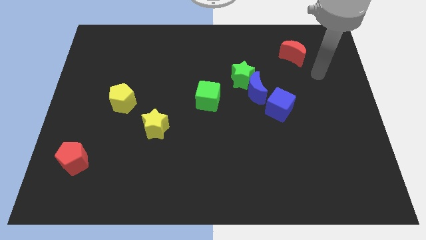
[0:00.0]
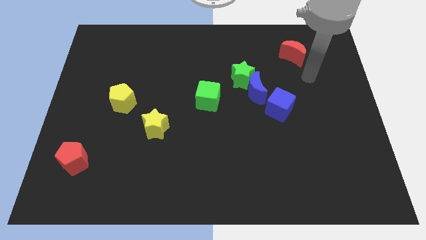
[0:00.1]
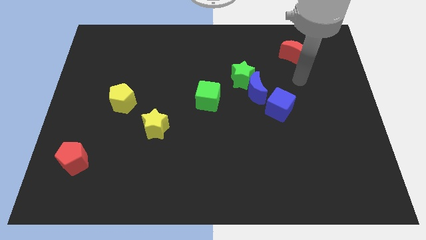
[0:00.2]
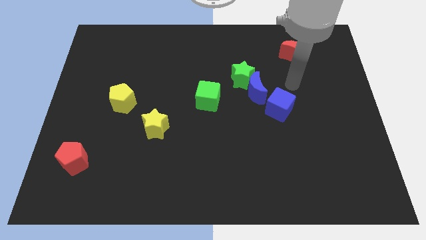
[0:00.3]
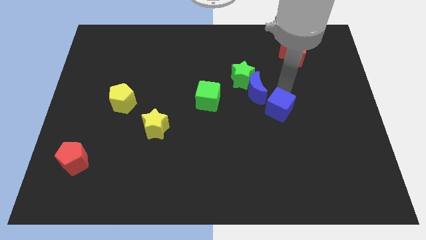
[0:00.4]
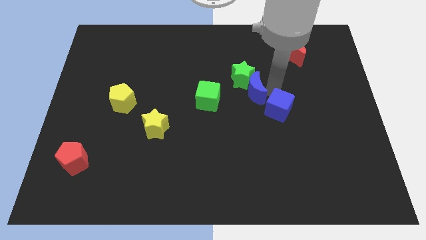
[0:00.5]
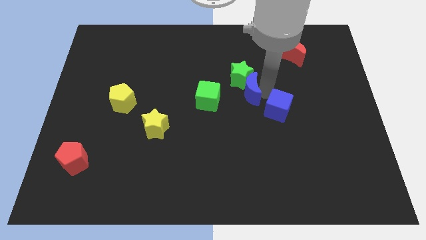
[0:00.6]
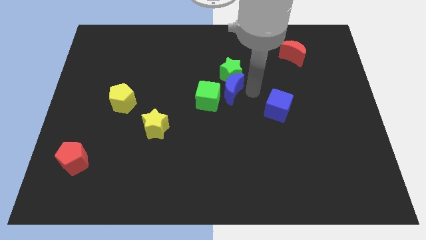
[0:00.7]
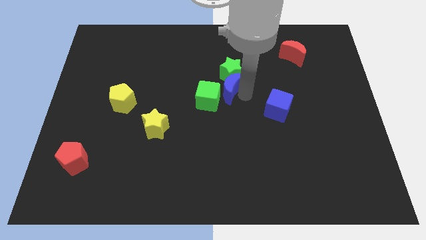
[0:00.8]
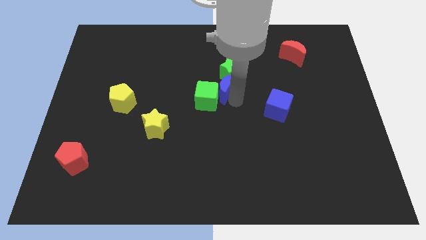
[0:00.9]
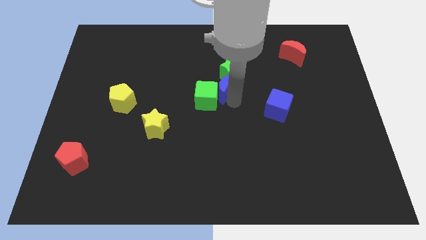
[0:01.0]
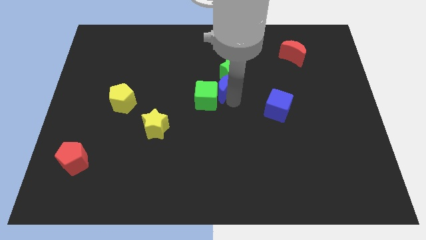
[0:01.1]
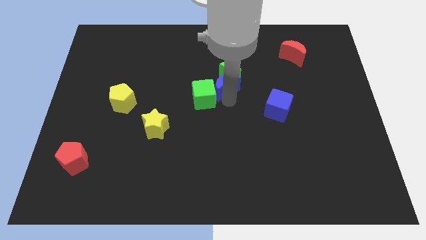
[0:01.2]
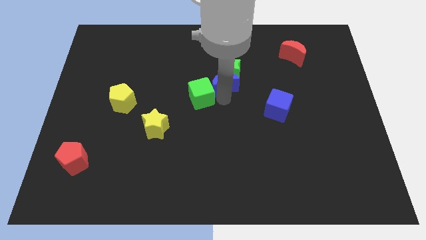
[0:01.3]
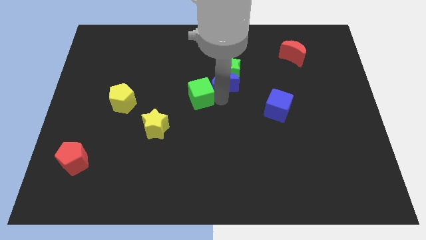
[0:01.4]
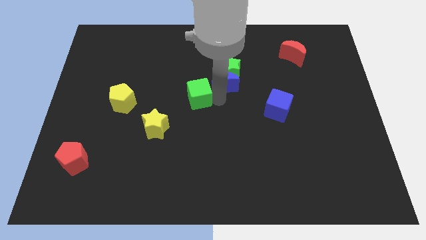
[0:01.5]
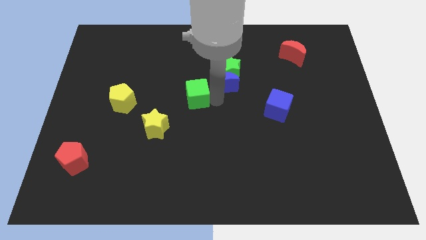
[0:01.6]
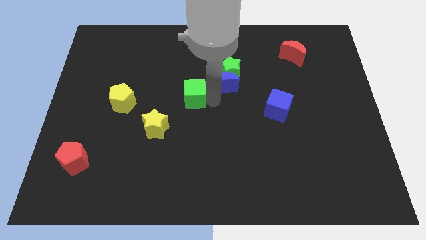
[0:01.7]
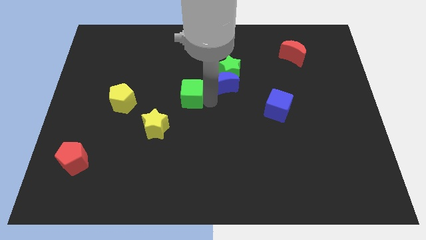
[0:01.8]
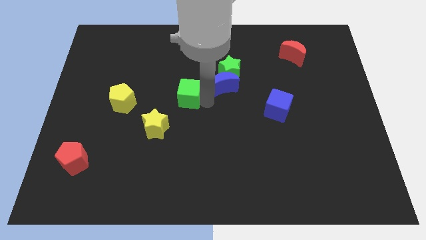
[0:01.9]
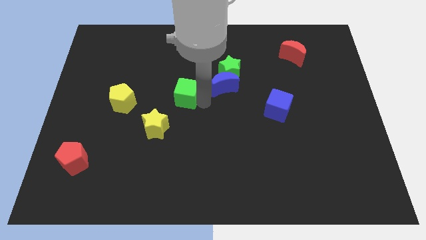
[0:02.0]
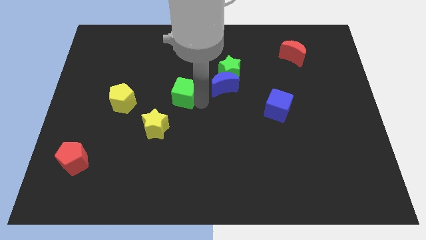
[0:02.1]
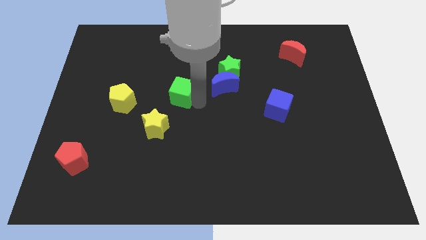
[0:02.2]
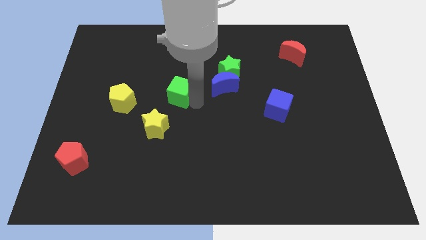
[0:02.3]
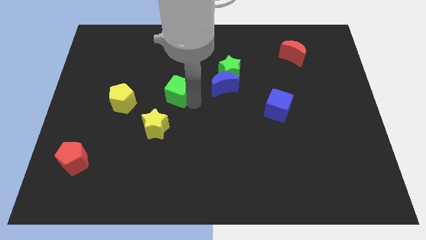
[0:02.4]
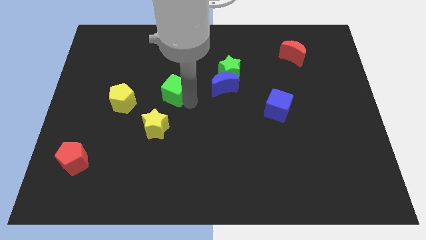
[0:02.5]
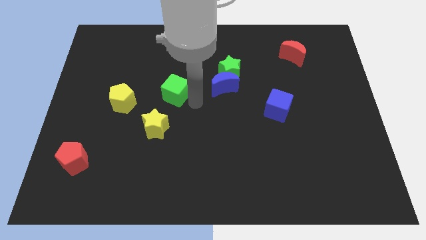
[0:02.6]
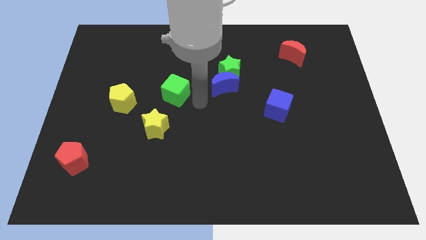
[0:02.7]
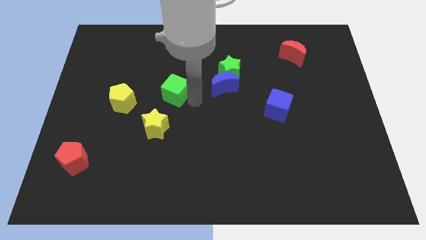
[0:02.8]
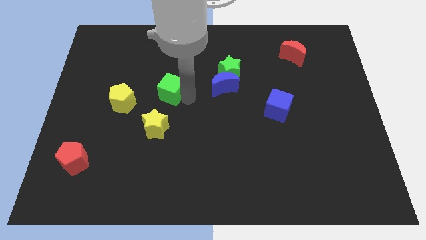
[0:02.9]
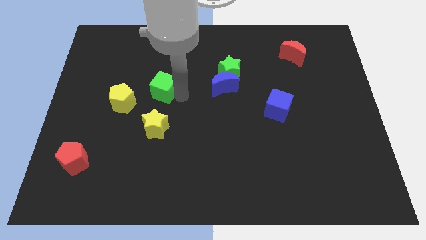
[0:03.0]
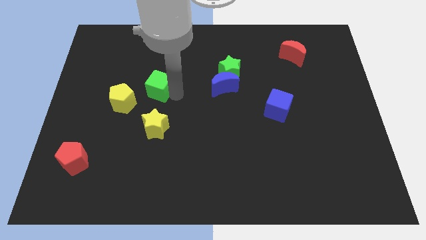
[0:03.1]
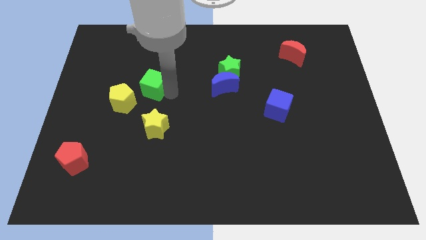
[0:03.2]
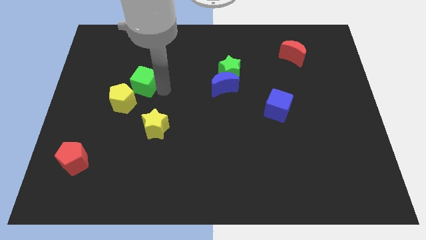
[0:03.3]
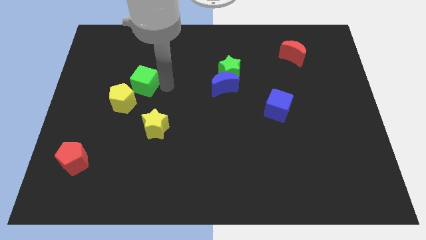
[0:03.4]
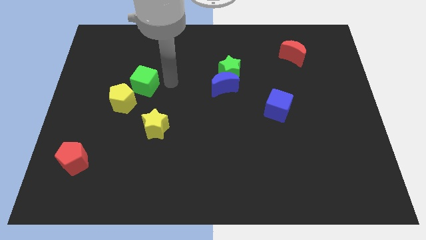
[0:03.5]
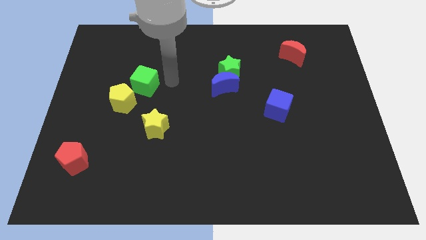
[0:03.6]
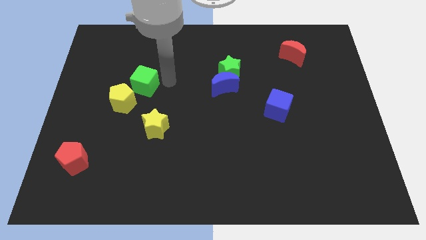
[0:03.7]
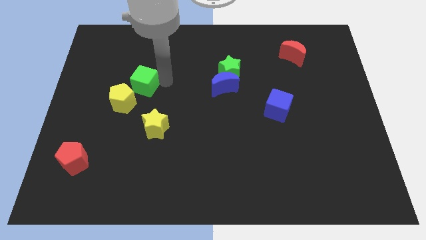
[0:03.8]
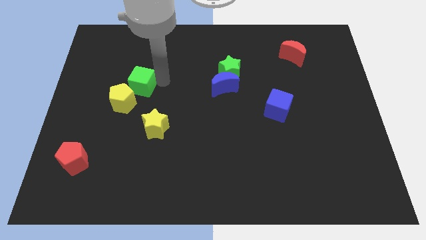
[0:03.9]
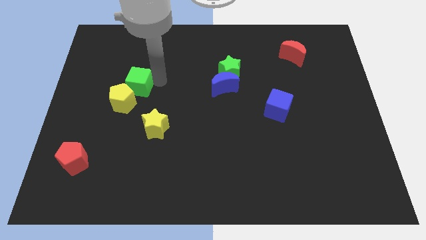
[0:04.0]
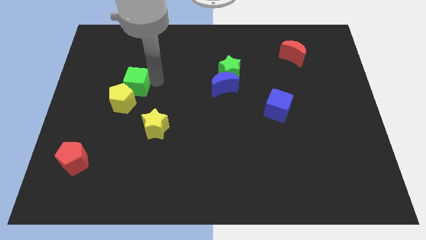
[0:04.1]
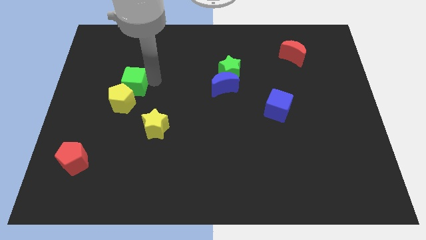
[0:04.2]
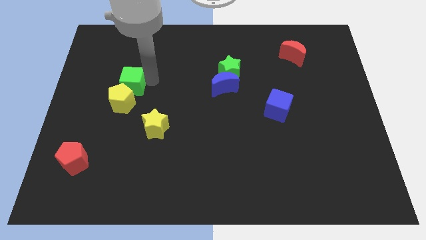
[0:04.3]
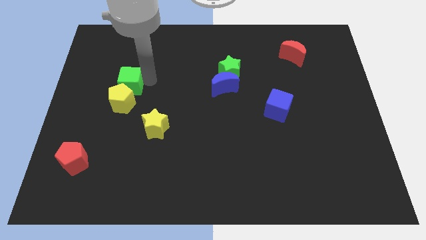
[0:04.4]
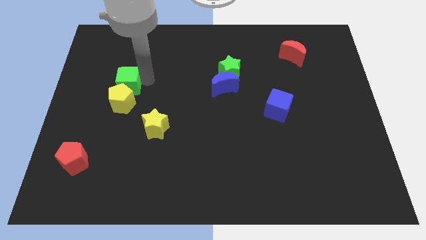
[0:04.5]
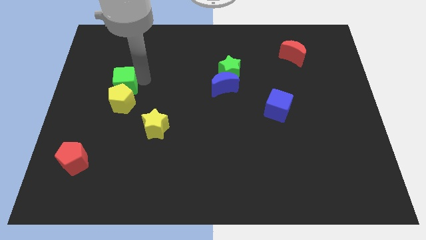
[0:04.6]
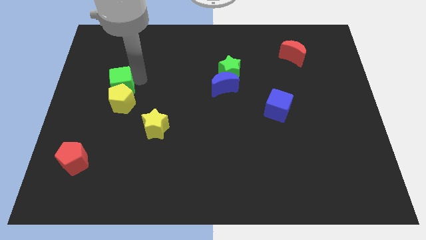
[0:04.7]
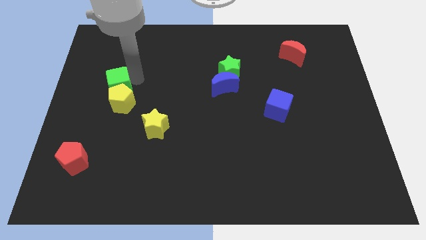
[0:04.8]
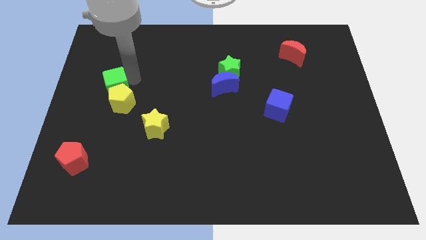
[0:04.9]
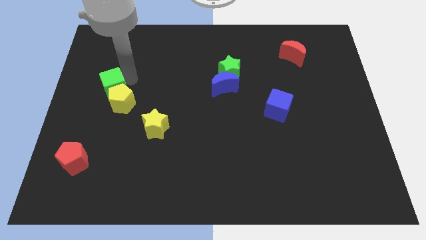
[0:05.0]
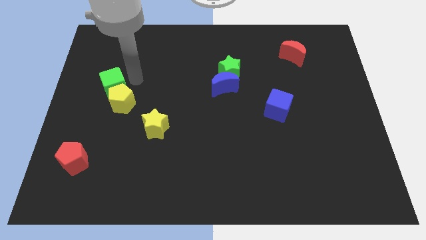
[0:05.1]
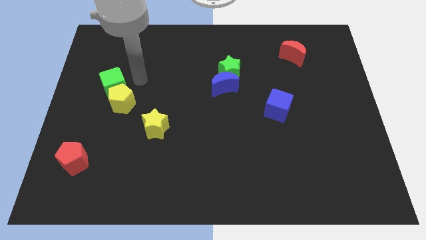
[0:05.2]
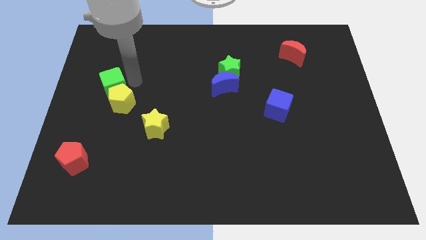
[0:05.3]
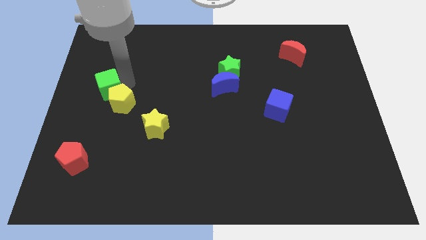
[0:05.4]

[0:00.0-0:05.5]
slide the green cube to the center left

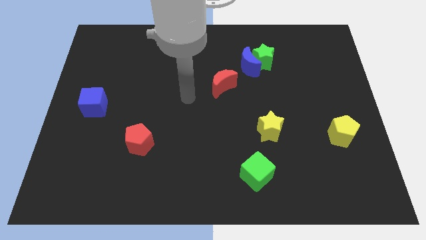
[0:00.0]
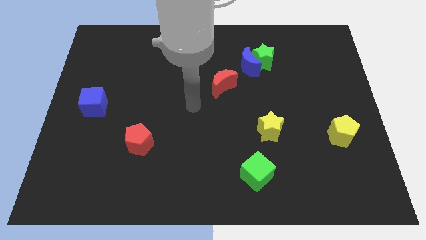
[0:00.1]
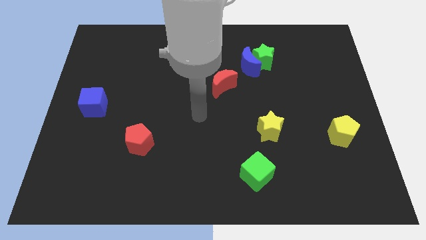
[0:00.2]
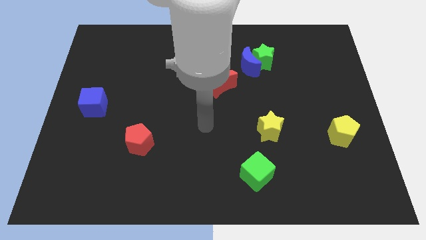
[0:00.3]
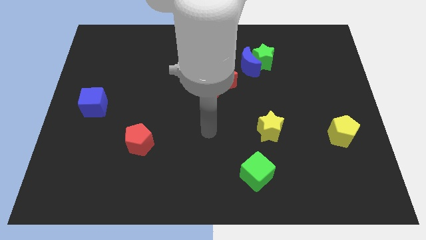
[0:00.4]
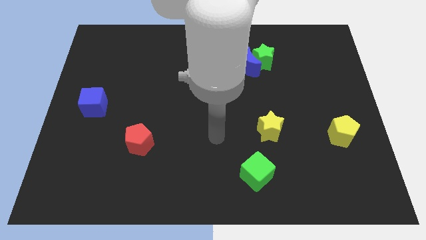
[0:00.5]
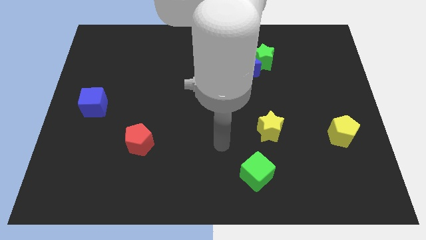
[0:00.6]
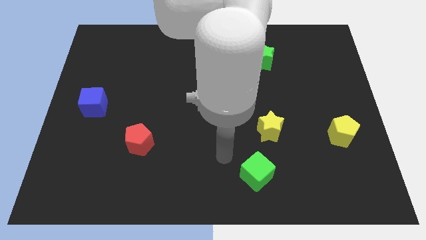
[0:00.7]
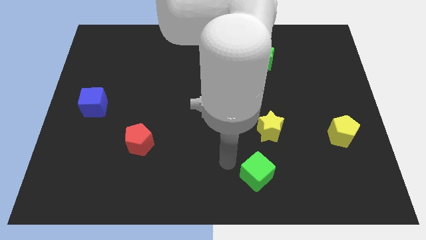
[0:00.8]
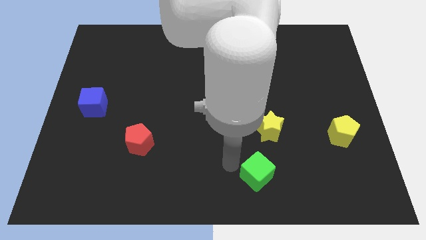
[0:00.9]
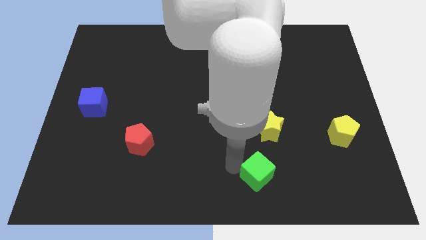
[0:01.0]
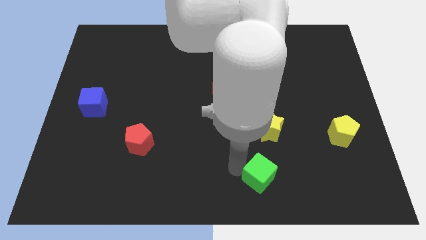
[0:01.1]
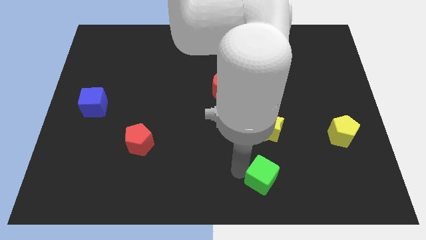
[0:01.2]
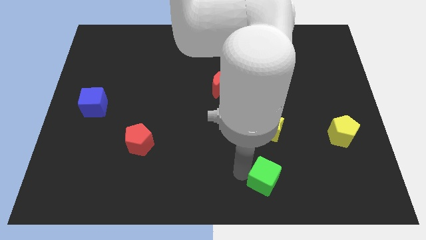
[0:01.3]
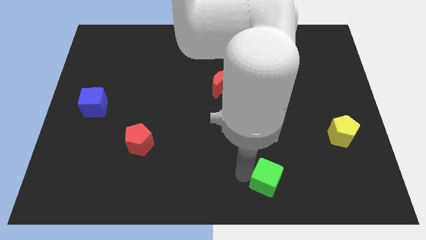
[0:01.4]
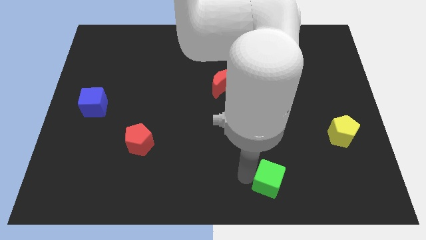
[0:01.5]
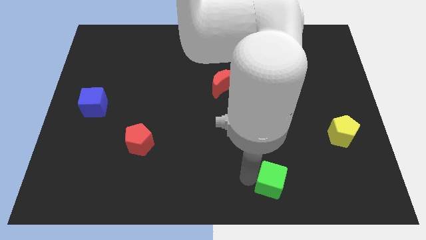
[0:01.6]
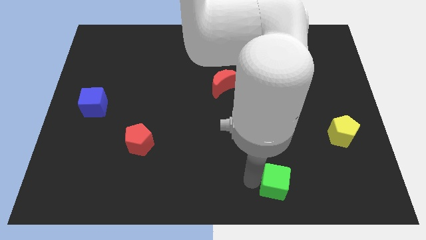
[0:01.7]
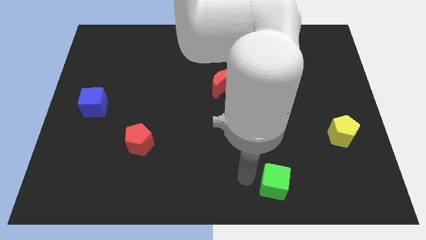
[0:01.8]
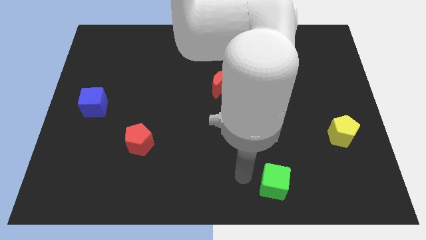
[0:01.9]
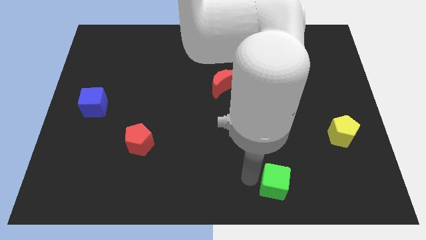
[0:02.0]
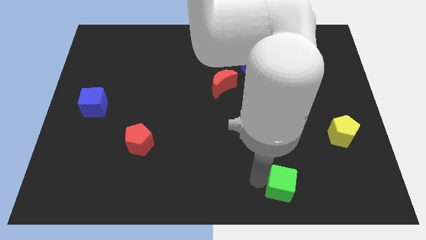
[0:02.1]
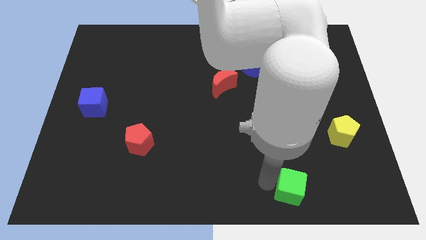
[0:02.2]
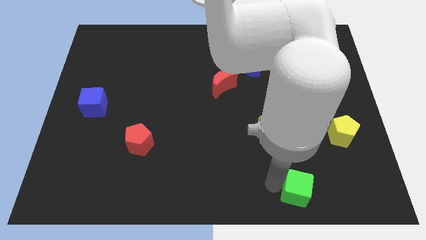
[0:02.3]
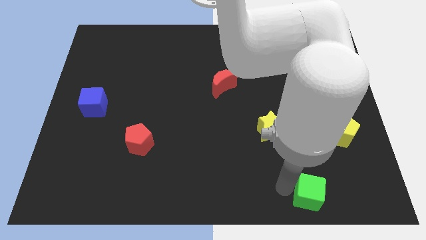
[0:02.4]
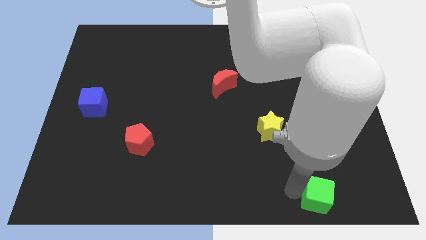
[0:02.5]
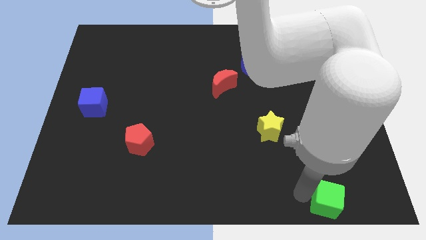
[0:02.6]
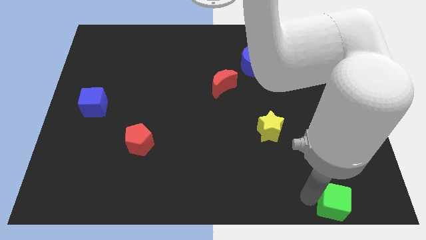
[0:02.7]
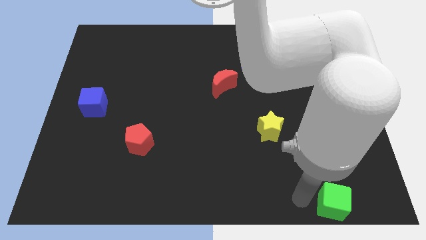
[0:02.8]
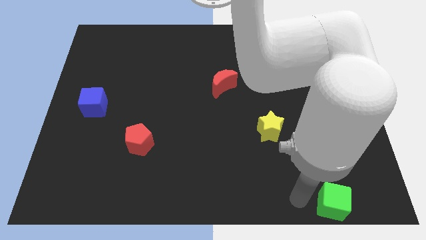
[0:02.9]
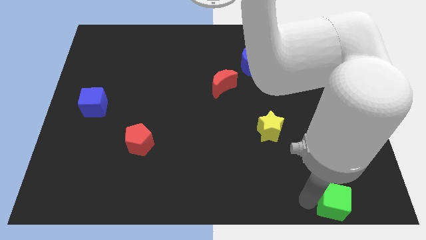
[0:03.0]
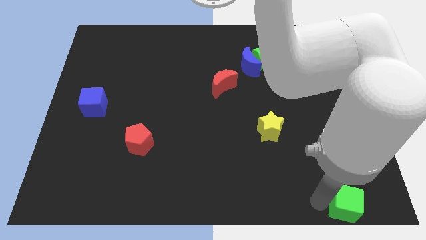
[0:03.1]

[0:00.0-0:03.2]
slide the green cube to the lower right corner
